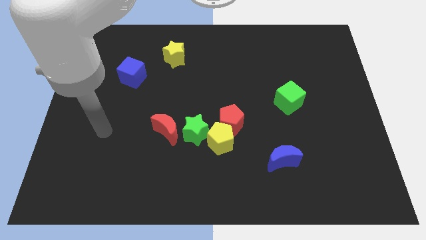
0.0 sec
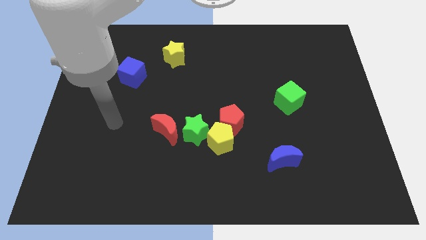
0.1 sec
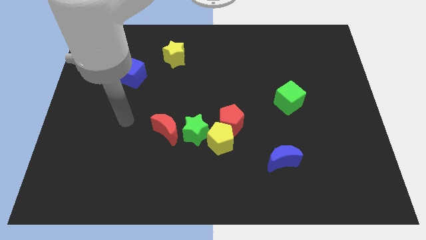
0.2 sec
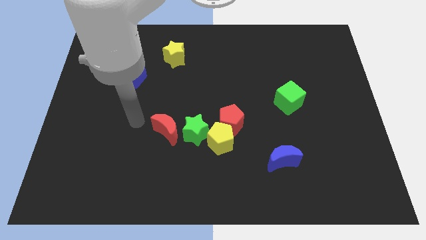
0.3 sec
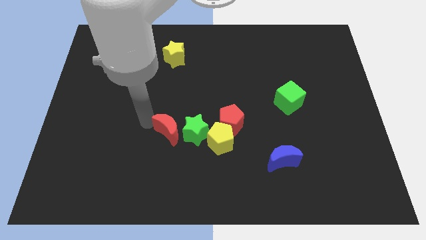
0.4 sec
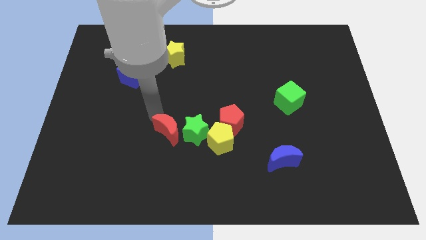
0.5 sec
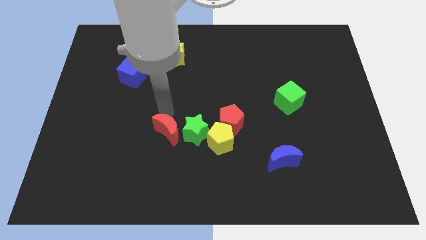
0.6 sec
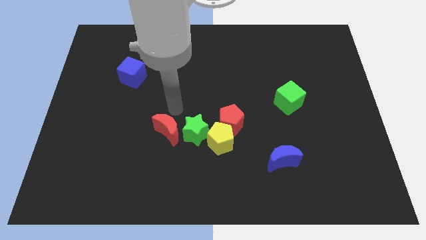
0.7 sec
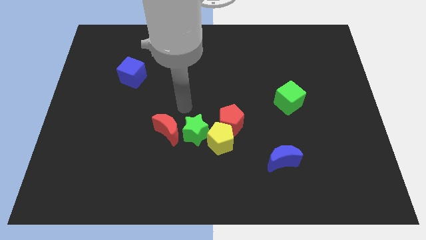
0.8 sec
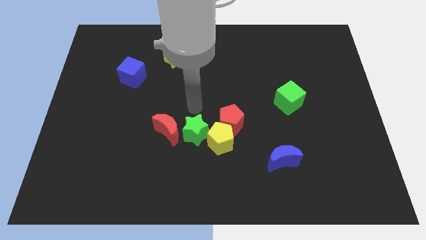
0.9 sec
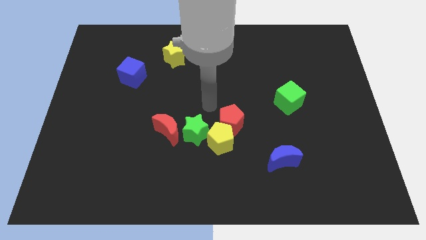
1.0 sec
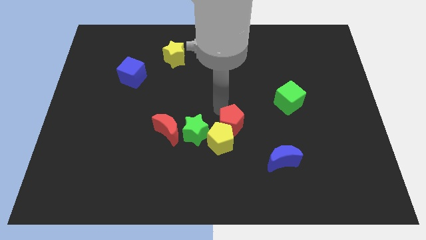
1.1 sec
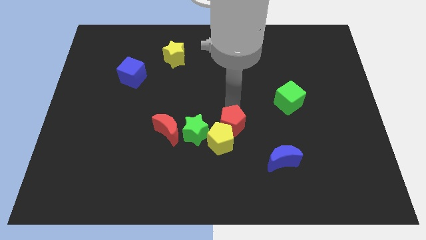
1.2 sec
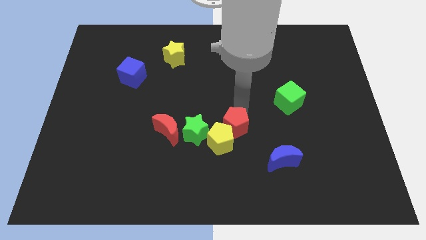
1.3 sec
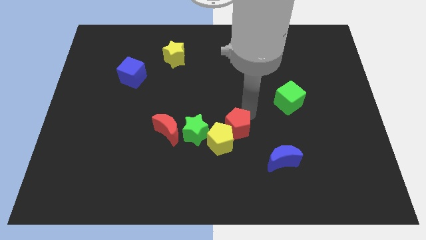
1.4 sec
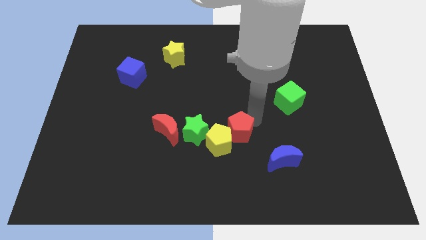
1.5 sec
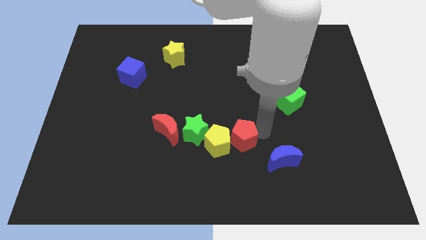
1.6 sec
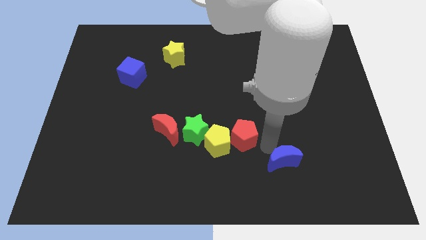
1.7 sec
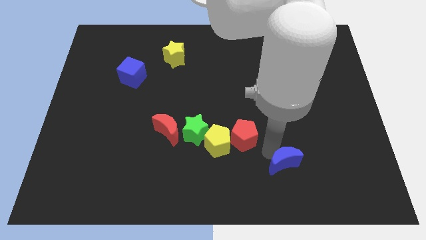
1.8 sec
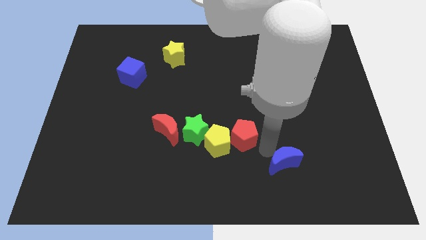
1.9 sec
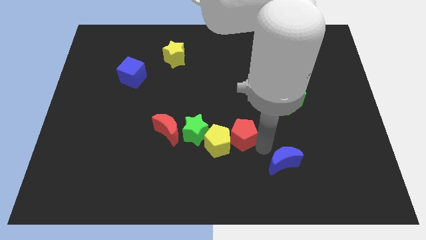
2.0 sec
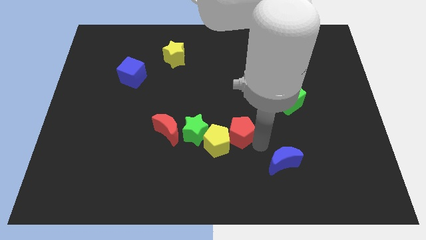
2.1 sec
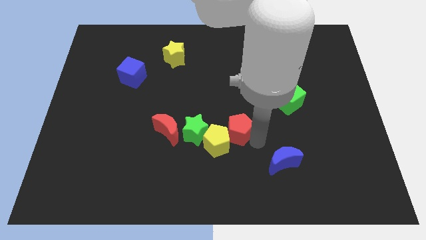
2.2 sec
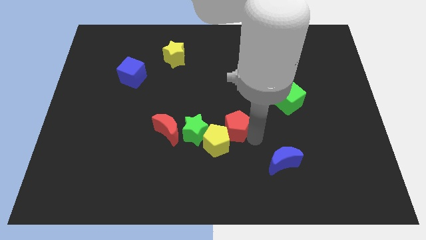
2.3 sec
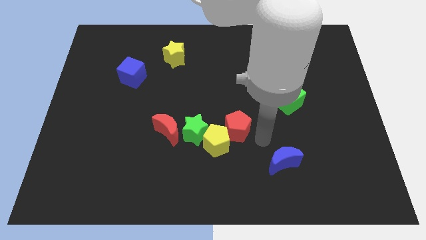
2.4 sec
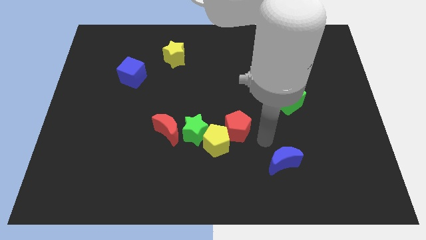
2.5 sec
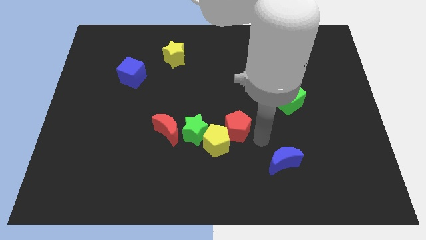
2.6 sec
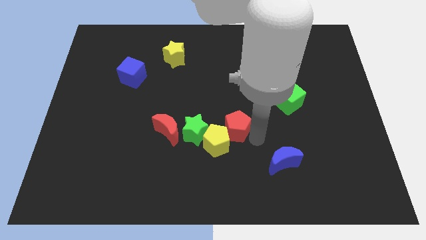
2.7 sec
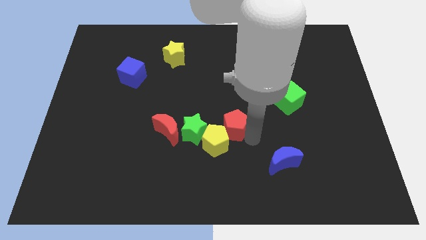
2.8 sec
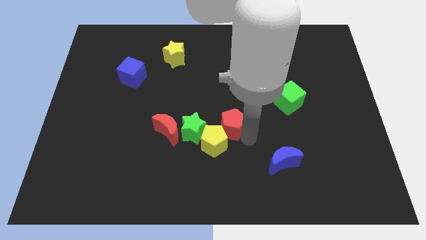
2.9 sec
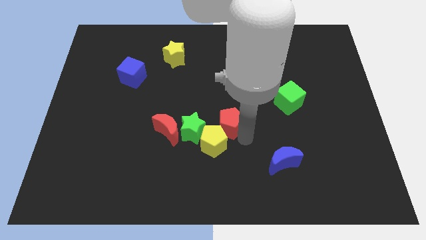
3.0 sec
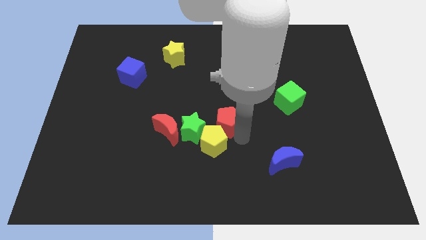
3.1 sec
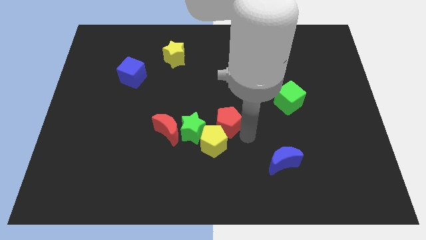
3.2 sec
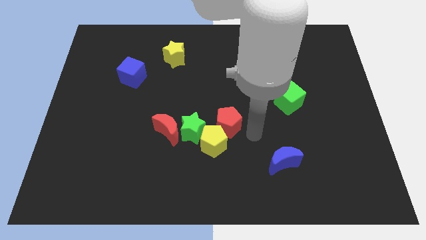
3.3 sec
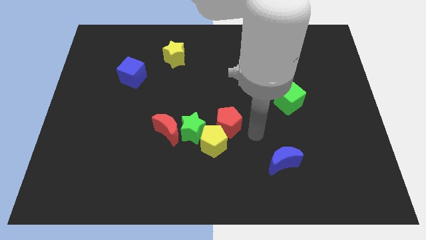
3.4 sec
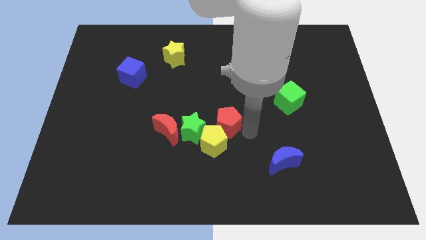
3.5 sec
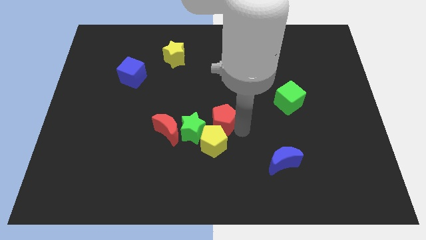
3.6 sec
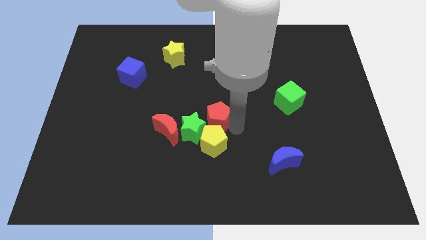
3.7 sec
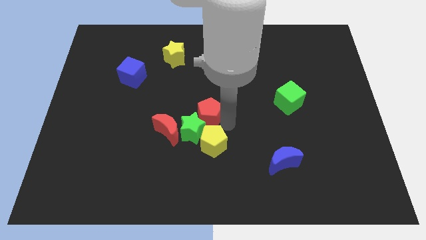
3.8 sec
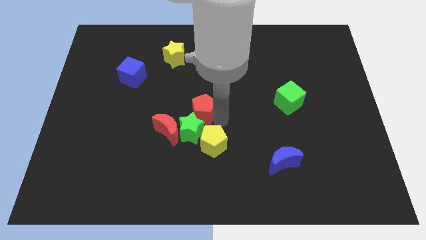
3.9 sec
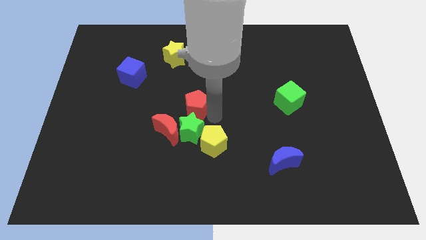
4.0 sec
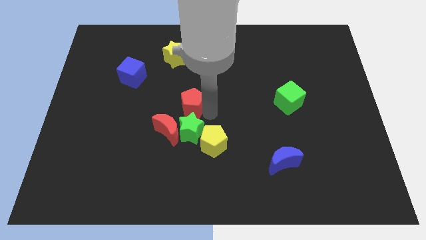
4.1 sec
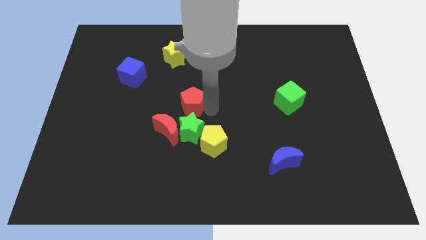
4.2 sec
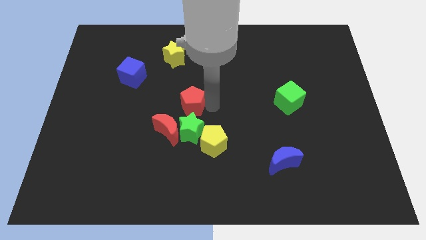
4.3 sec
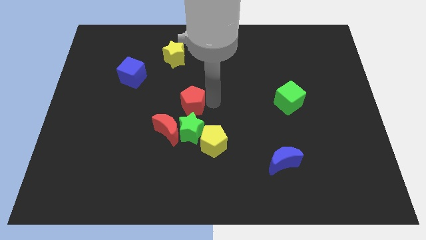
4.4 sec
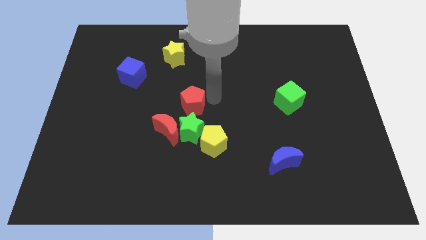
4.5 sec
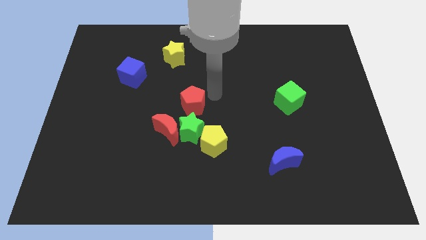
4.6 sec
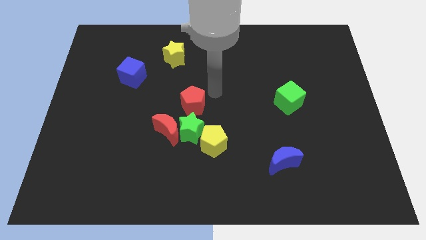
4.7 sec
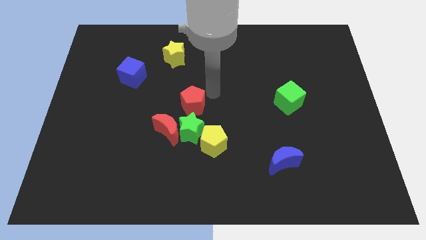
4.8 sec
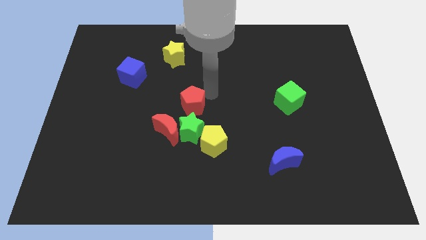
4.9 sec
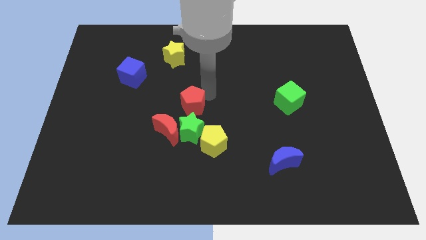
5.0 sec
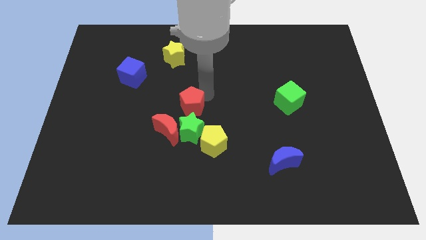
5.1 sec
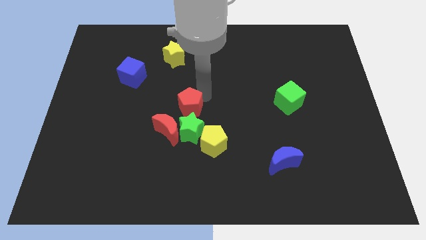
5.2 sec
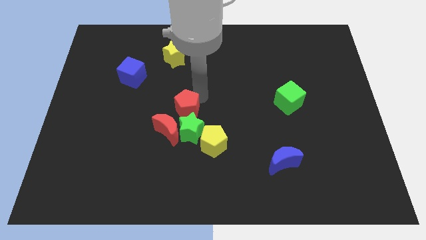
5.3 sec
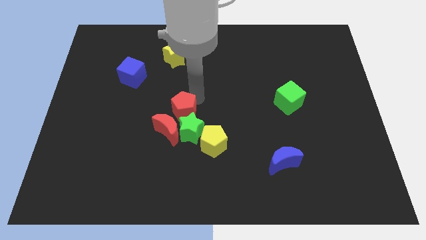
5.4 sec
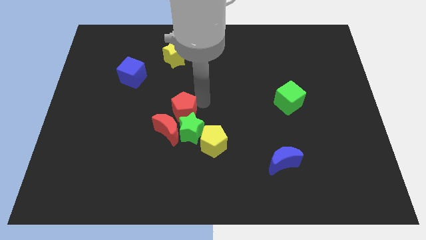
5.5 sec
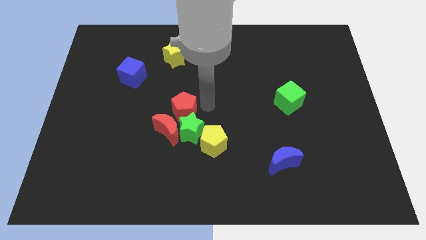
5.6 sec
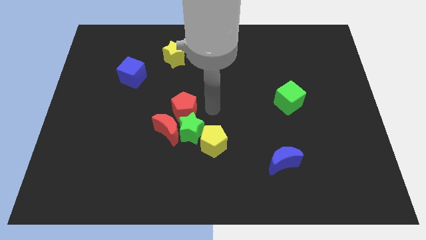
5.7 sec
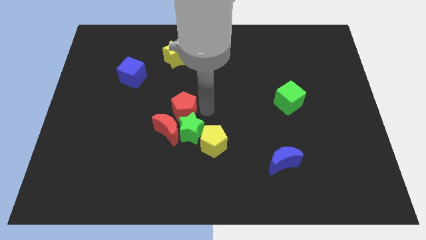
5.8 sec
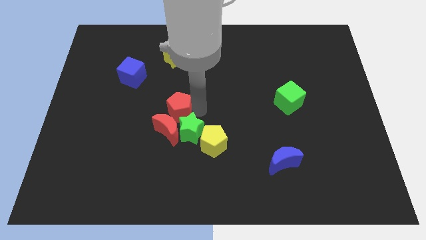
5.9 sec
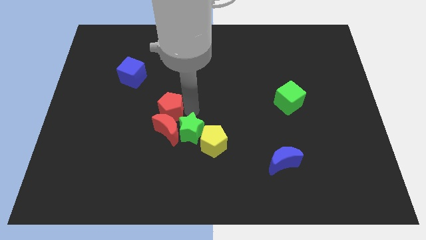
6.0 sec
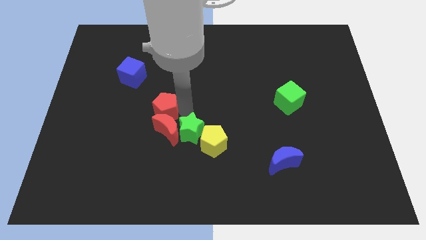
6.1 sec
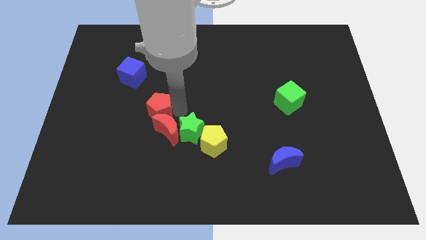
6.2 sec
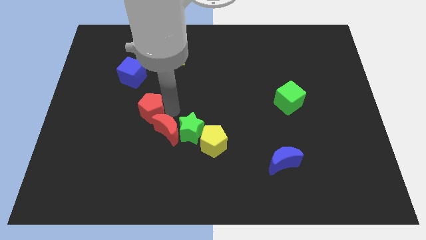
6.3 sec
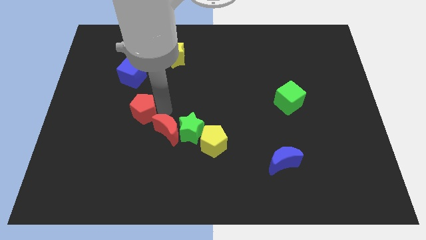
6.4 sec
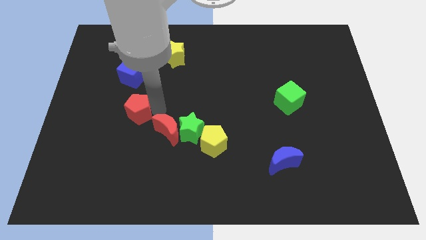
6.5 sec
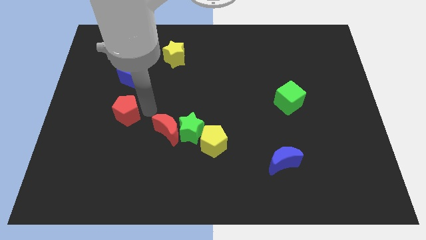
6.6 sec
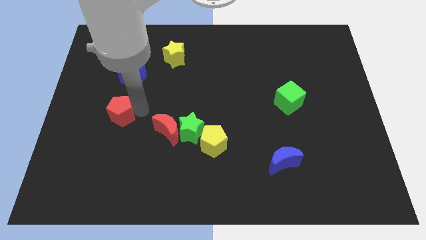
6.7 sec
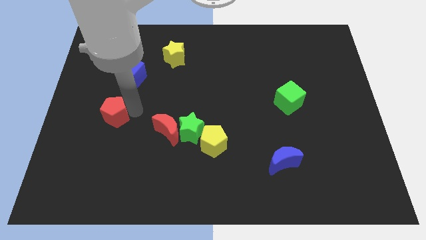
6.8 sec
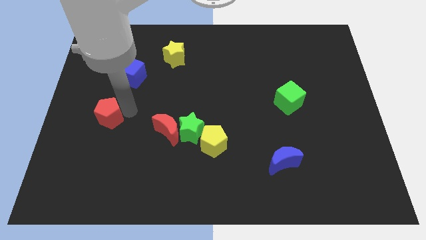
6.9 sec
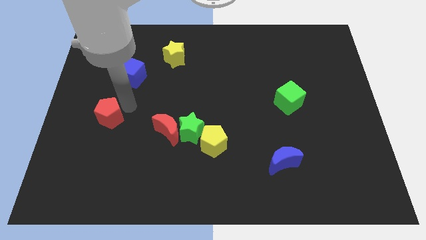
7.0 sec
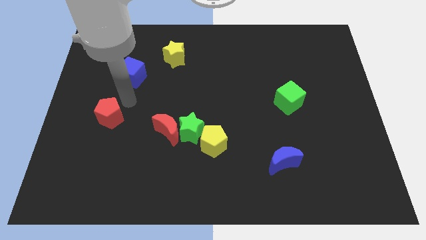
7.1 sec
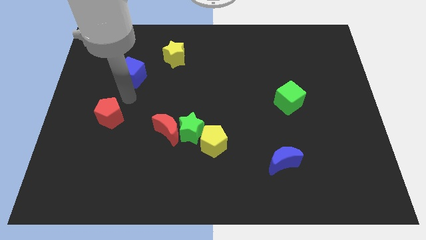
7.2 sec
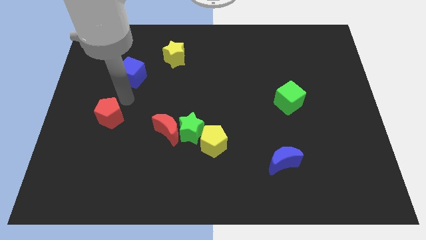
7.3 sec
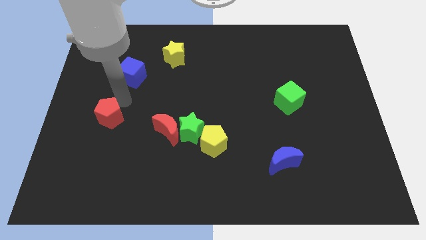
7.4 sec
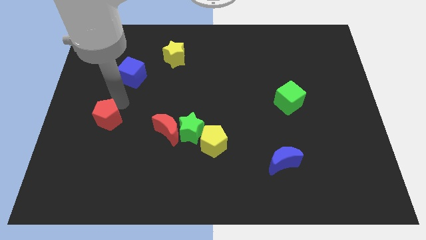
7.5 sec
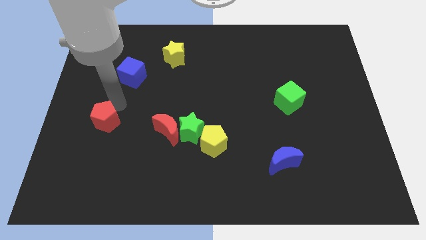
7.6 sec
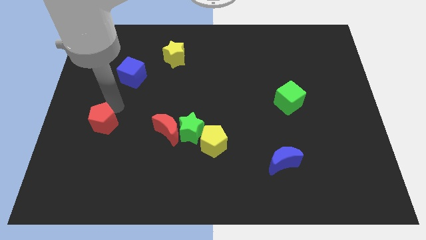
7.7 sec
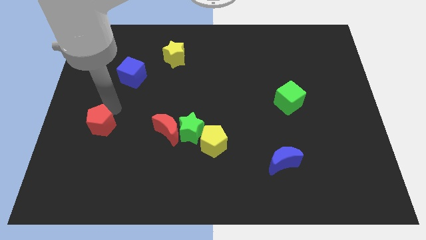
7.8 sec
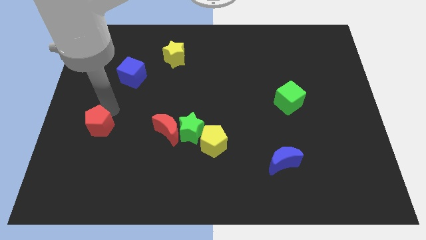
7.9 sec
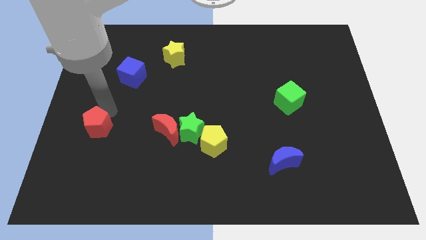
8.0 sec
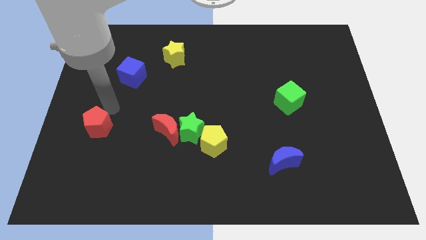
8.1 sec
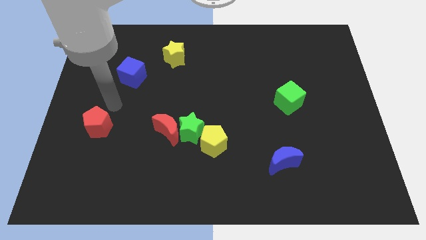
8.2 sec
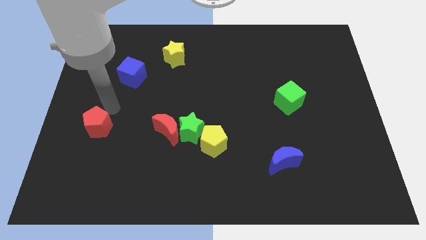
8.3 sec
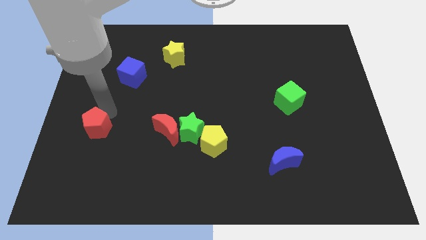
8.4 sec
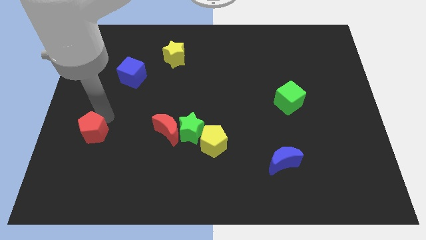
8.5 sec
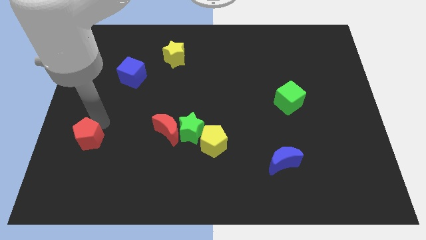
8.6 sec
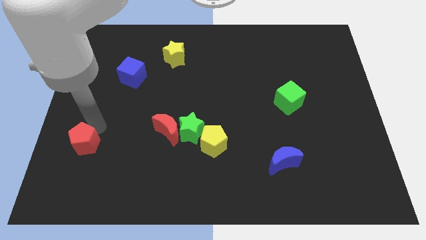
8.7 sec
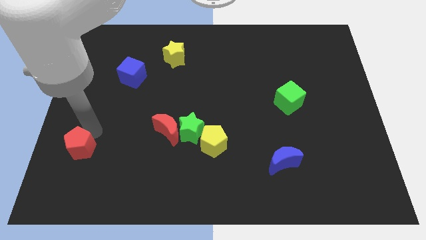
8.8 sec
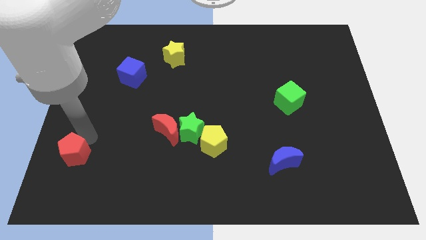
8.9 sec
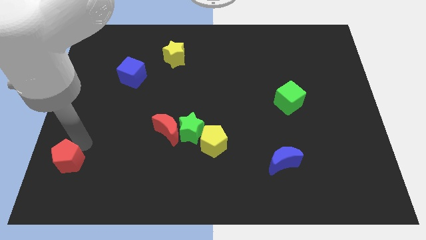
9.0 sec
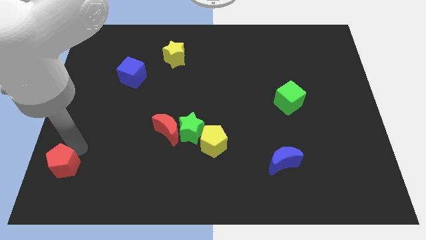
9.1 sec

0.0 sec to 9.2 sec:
move the red pentagon to the bottom left corner
